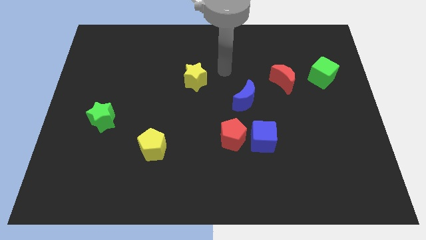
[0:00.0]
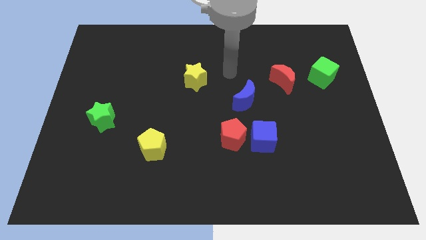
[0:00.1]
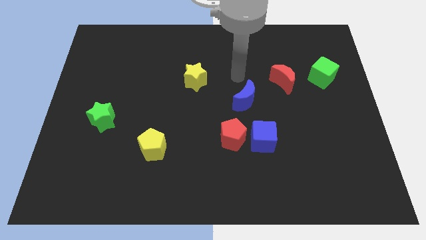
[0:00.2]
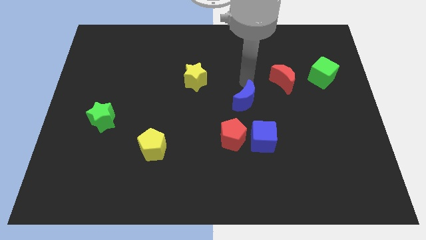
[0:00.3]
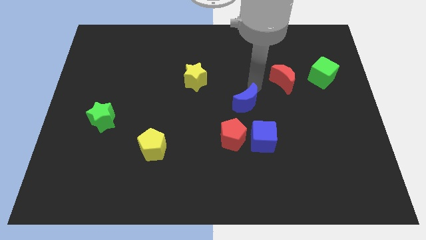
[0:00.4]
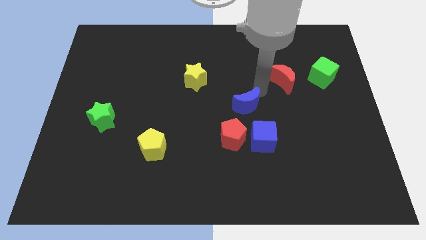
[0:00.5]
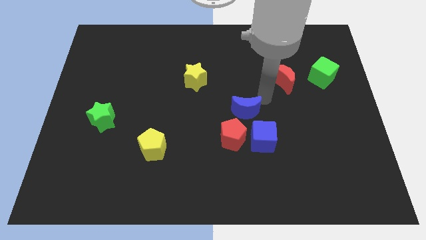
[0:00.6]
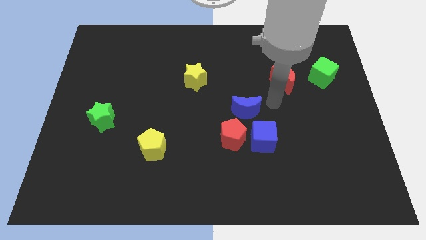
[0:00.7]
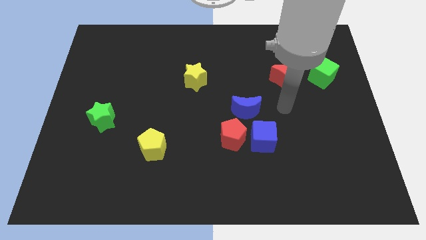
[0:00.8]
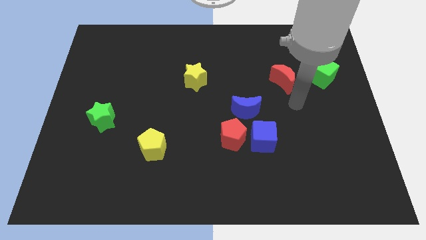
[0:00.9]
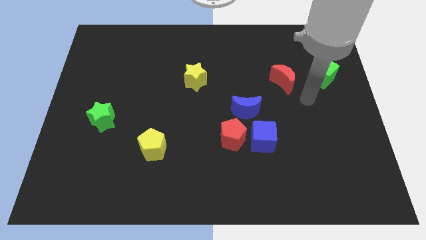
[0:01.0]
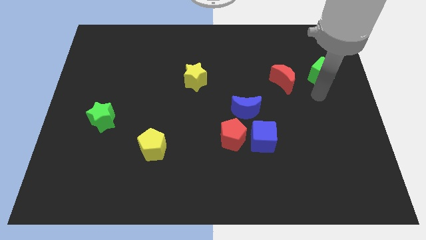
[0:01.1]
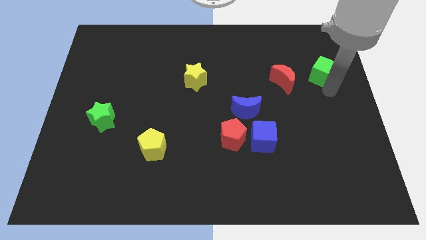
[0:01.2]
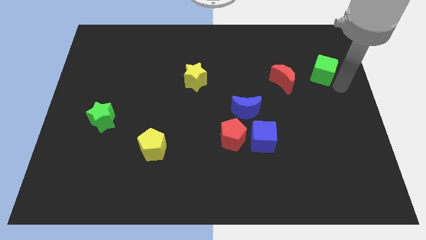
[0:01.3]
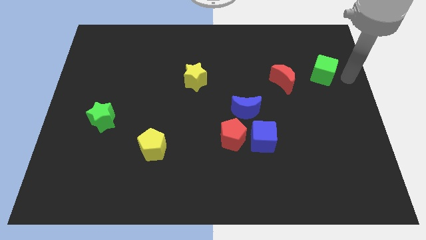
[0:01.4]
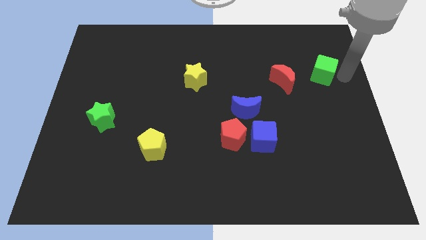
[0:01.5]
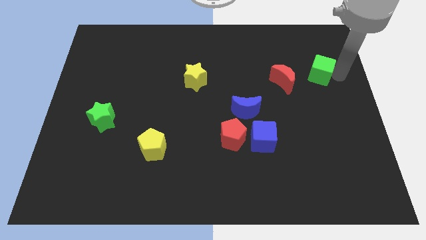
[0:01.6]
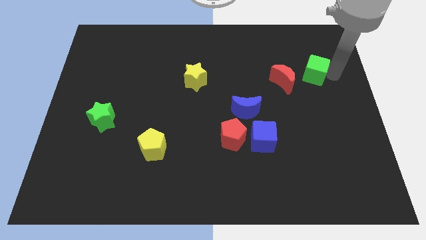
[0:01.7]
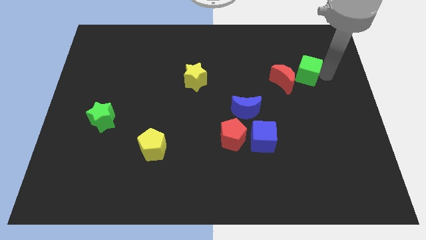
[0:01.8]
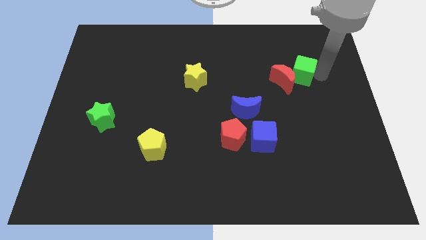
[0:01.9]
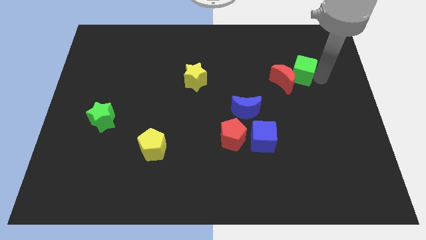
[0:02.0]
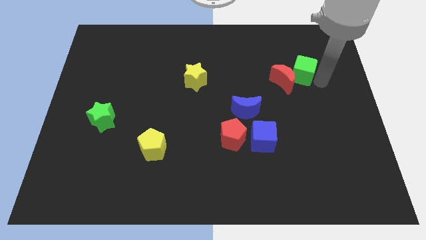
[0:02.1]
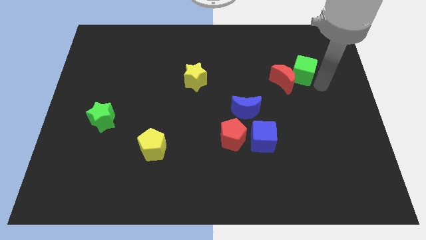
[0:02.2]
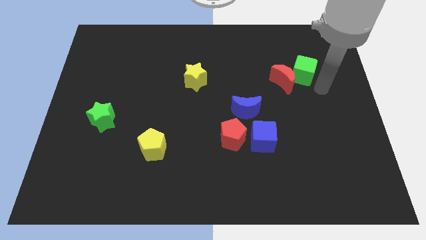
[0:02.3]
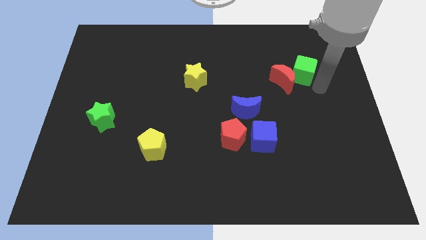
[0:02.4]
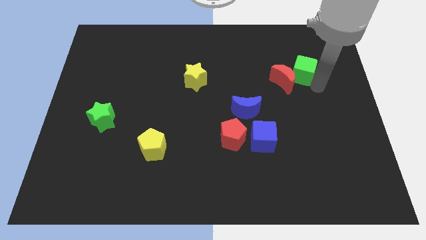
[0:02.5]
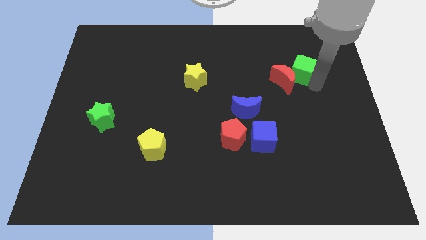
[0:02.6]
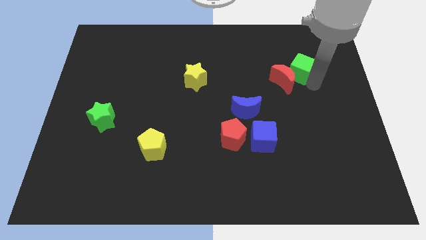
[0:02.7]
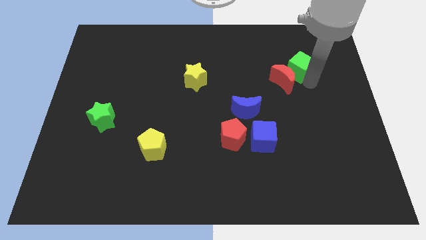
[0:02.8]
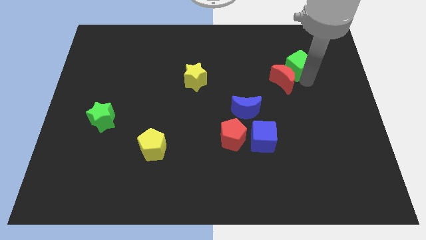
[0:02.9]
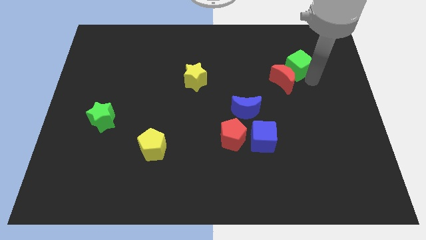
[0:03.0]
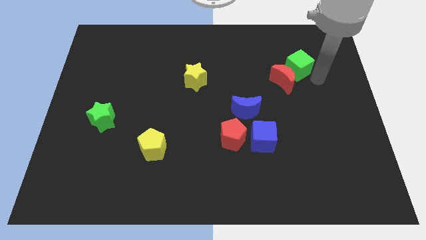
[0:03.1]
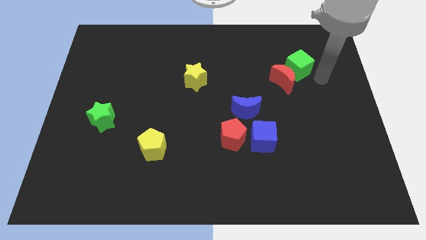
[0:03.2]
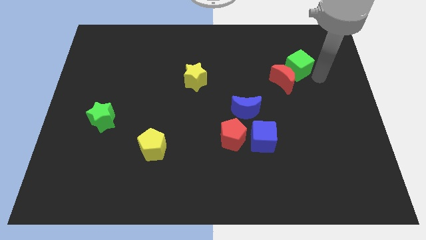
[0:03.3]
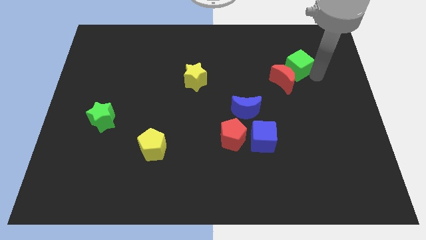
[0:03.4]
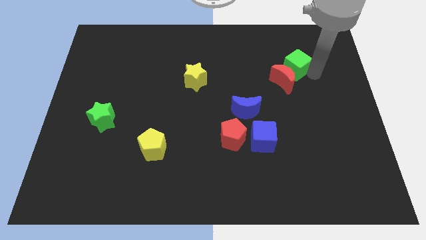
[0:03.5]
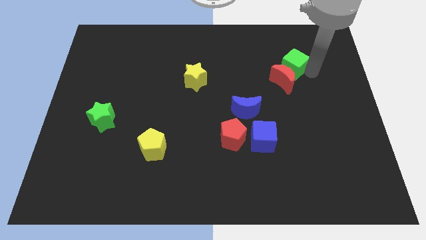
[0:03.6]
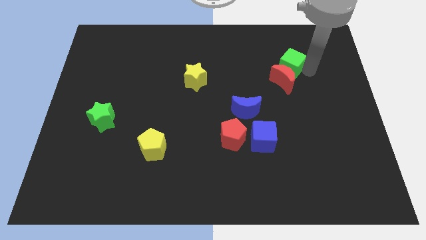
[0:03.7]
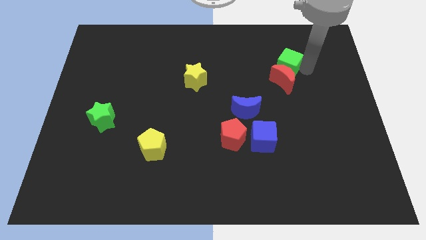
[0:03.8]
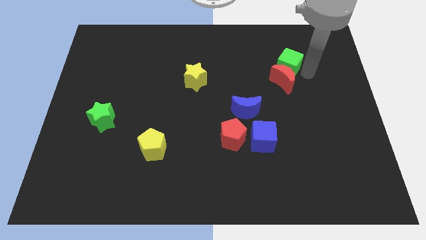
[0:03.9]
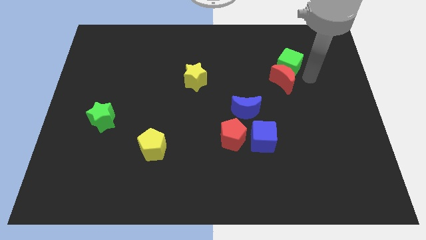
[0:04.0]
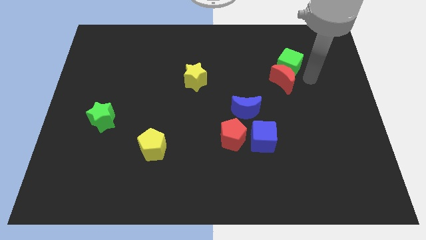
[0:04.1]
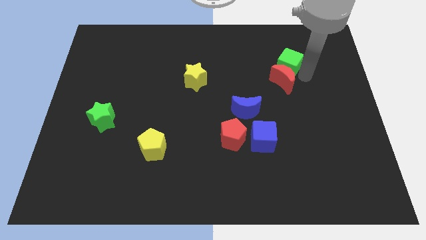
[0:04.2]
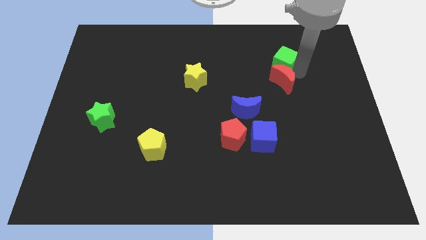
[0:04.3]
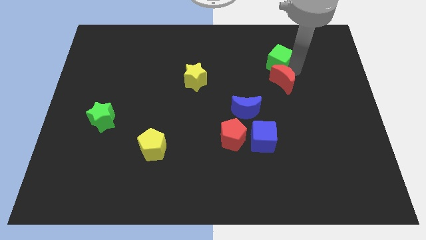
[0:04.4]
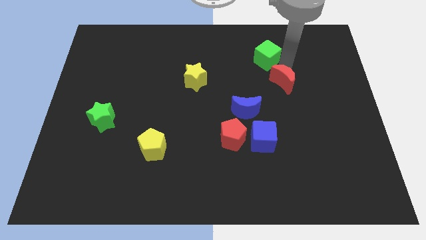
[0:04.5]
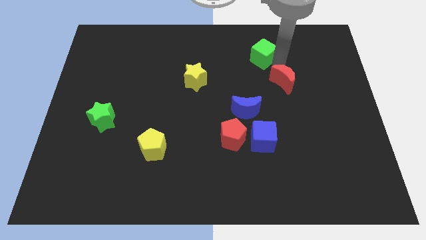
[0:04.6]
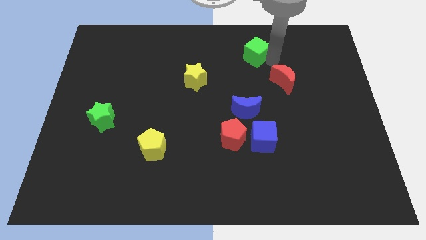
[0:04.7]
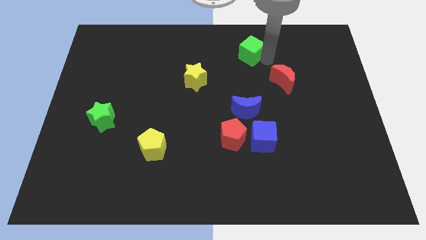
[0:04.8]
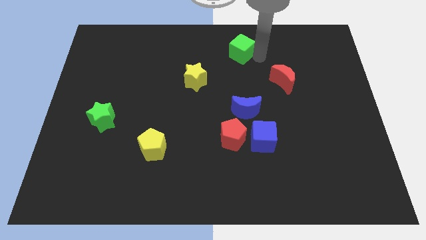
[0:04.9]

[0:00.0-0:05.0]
move the green cube to the towards your base

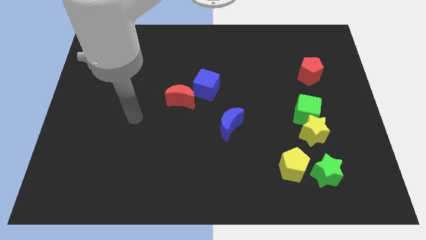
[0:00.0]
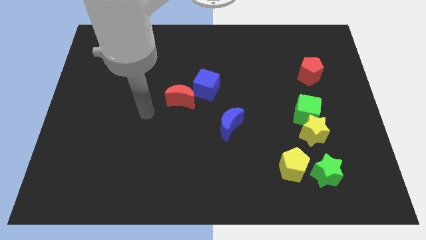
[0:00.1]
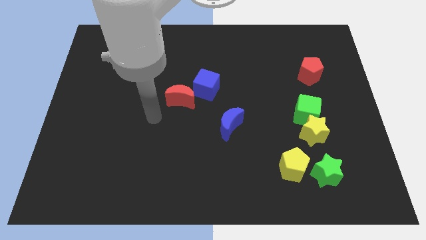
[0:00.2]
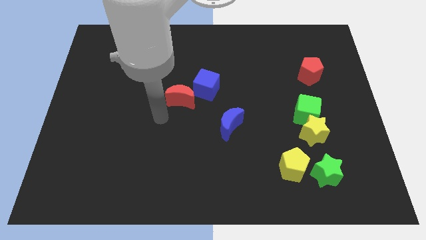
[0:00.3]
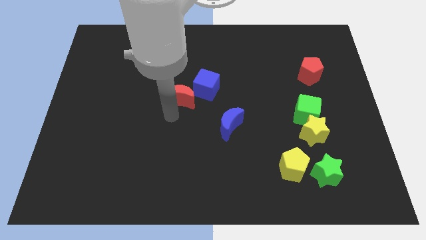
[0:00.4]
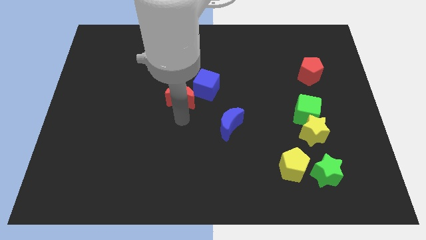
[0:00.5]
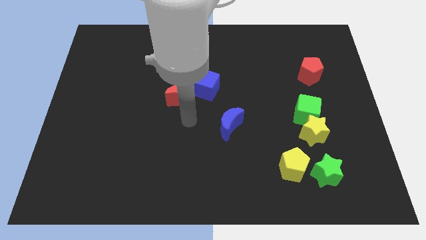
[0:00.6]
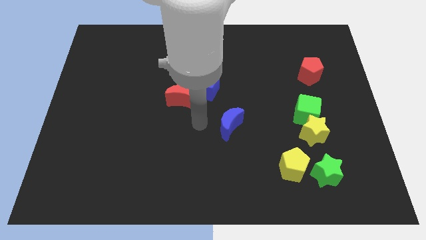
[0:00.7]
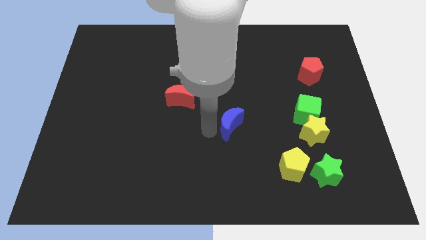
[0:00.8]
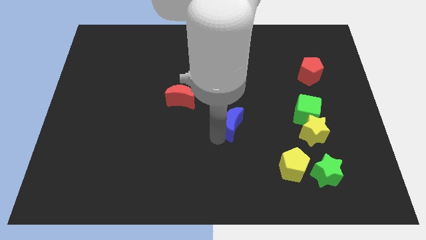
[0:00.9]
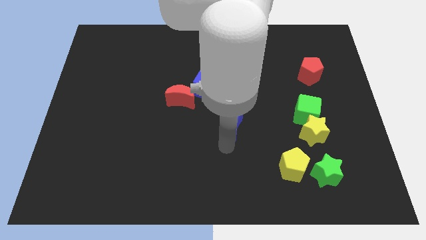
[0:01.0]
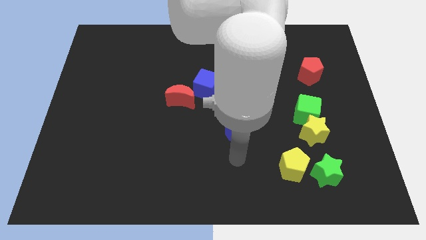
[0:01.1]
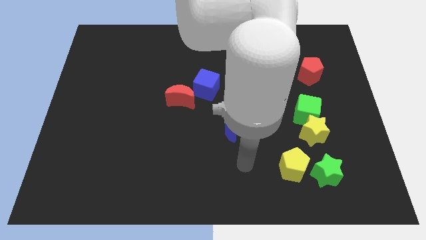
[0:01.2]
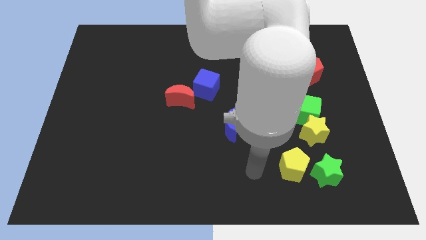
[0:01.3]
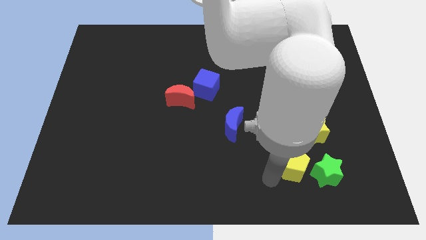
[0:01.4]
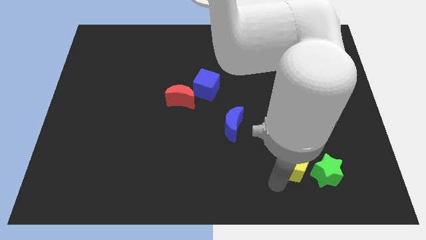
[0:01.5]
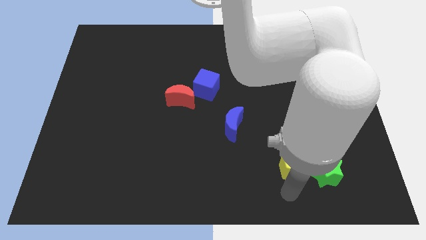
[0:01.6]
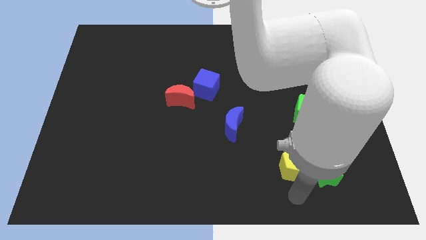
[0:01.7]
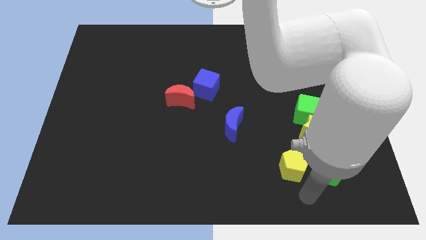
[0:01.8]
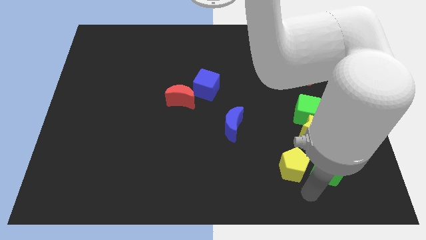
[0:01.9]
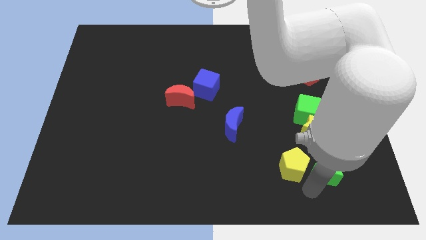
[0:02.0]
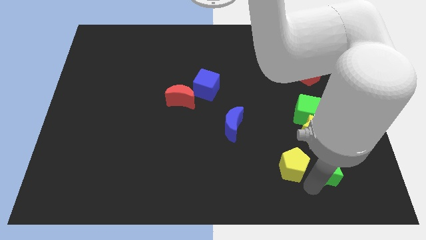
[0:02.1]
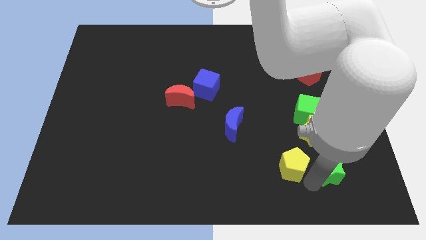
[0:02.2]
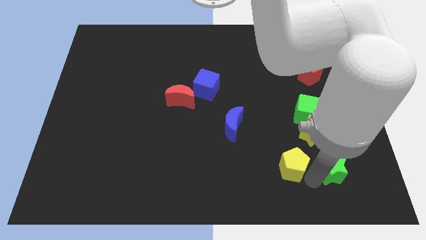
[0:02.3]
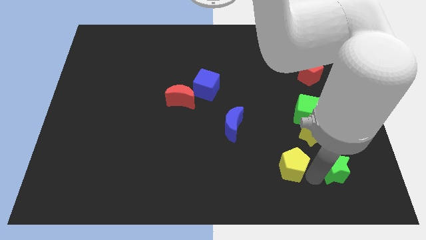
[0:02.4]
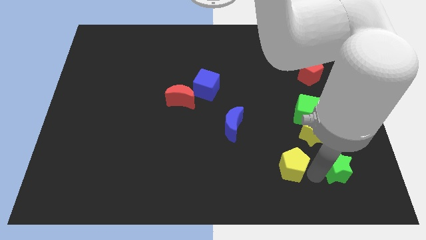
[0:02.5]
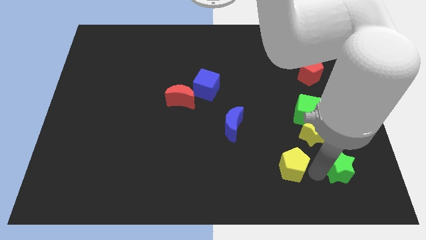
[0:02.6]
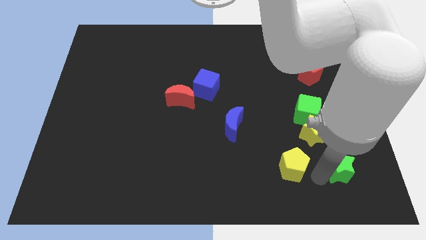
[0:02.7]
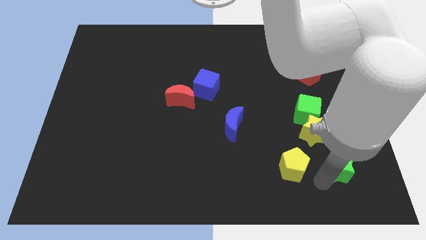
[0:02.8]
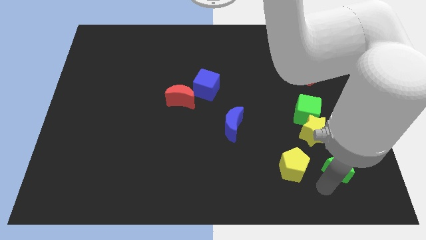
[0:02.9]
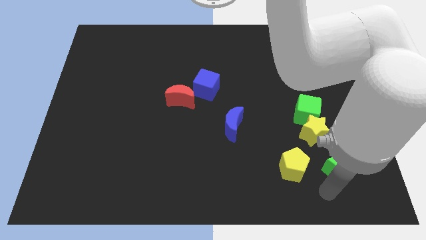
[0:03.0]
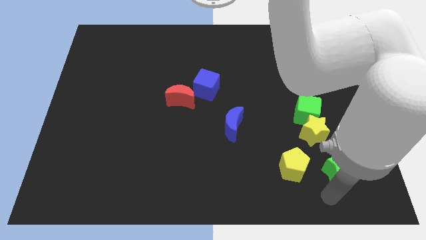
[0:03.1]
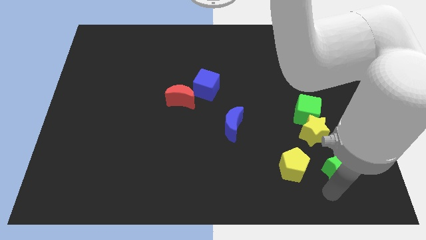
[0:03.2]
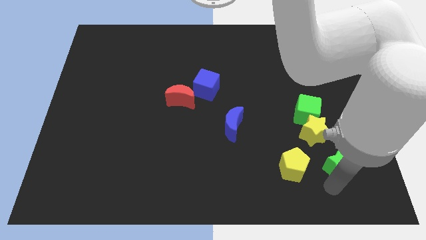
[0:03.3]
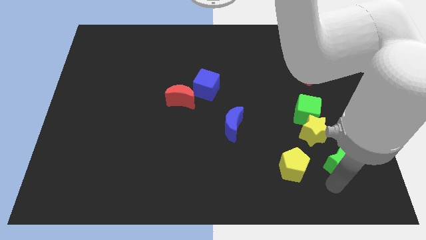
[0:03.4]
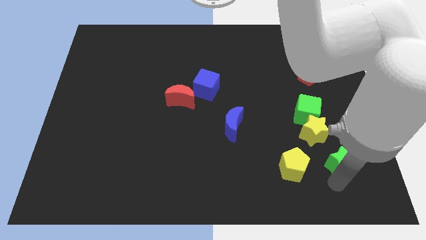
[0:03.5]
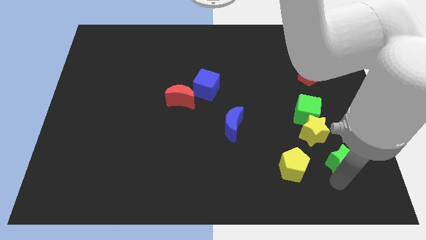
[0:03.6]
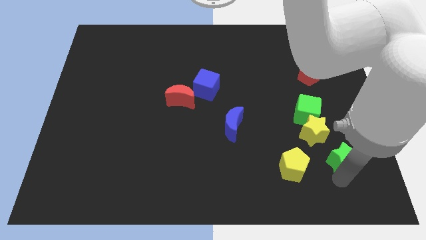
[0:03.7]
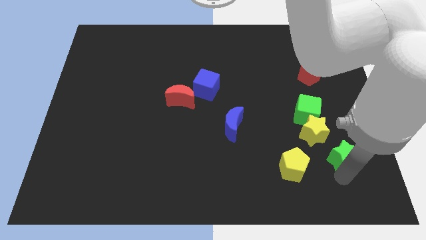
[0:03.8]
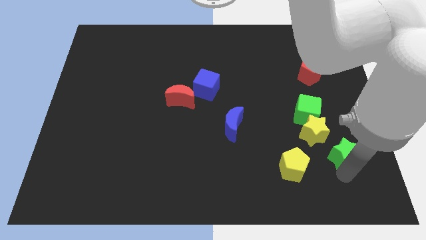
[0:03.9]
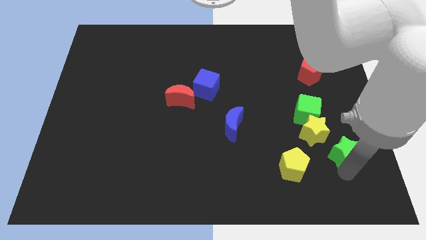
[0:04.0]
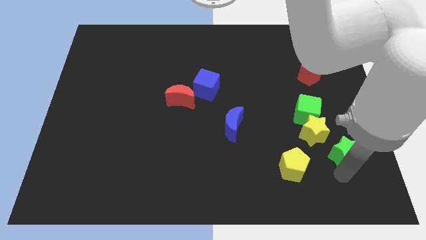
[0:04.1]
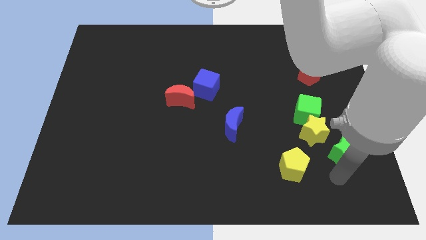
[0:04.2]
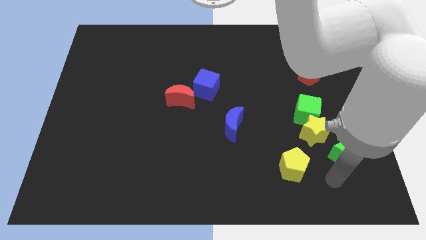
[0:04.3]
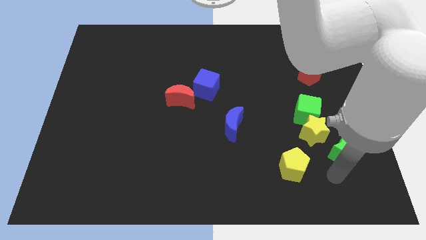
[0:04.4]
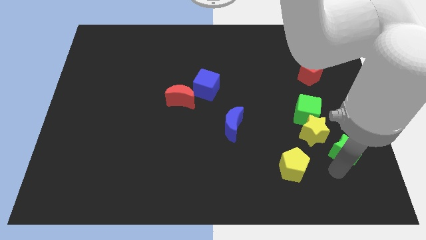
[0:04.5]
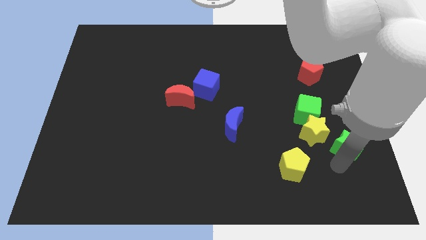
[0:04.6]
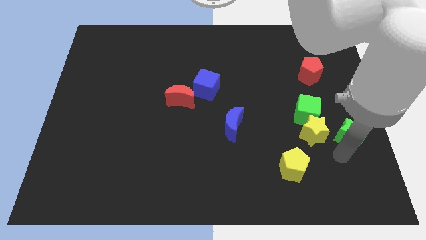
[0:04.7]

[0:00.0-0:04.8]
push the green star to the right side
